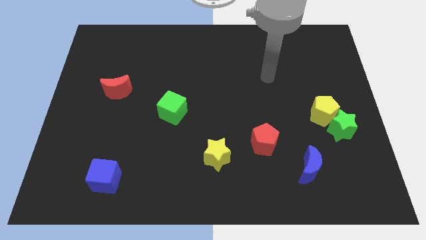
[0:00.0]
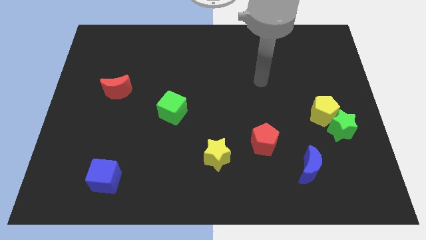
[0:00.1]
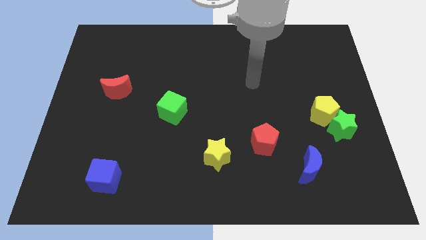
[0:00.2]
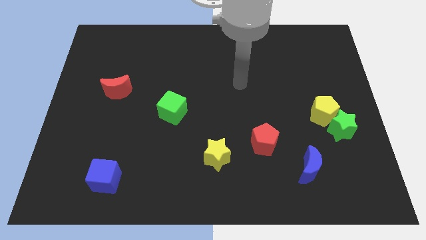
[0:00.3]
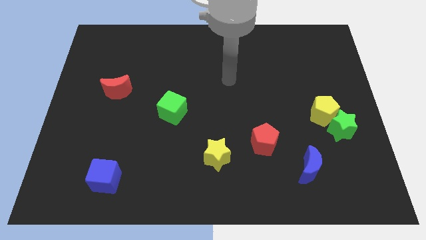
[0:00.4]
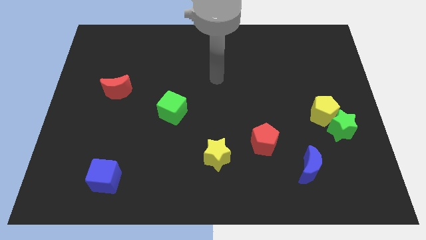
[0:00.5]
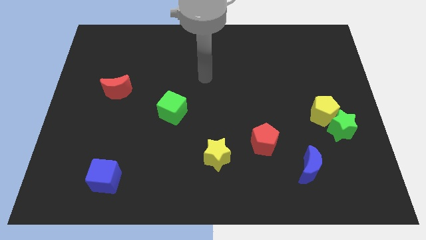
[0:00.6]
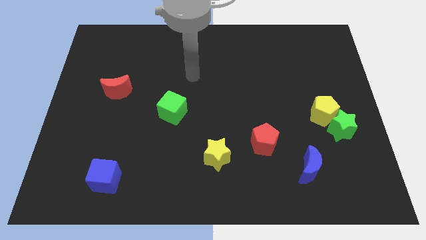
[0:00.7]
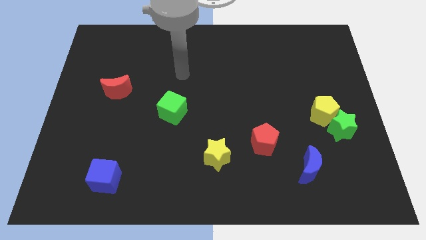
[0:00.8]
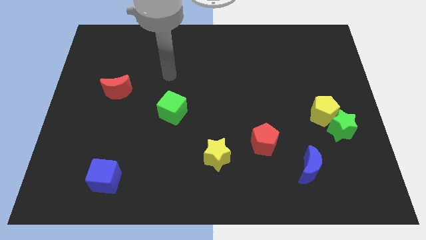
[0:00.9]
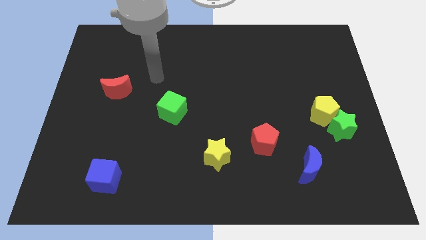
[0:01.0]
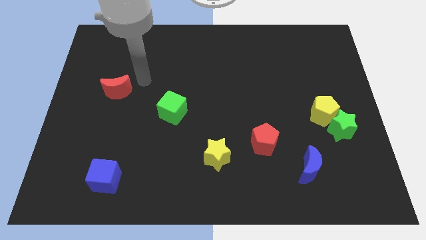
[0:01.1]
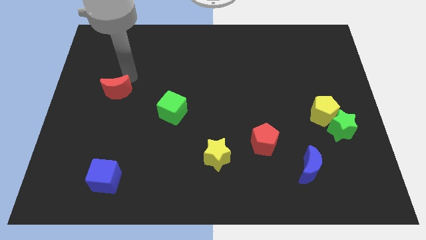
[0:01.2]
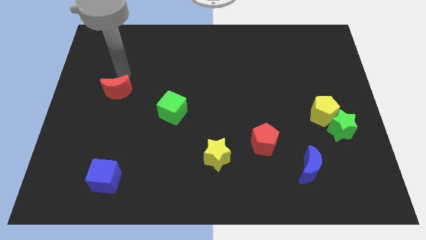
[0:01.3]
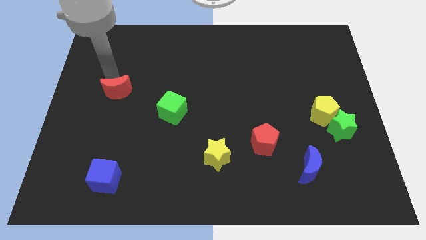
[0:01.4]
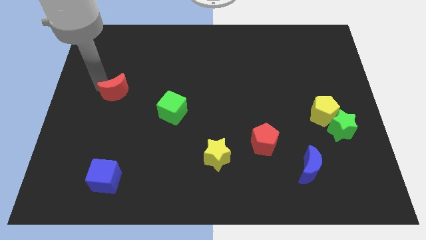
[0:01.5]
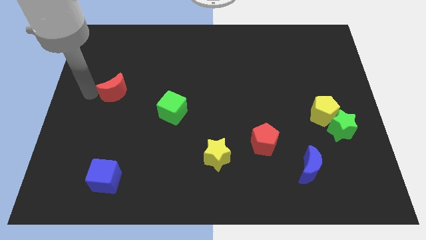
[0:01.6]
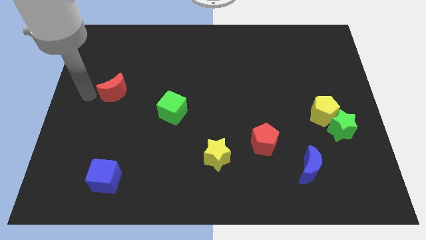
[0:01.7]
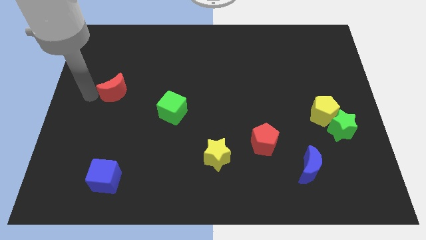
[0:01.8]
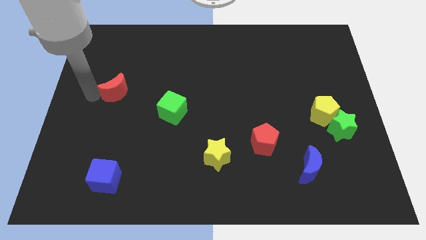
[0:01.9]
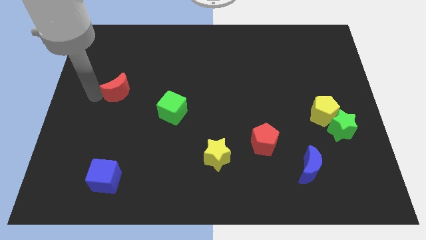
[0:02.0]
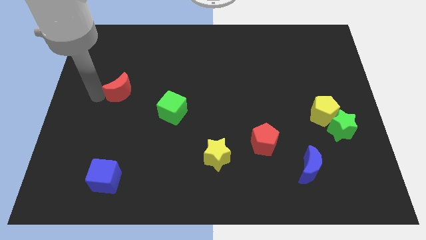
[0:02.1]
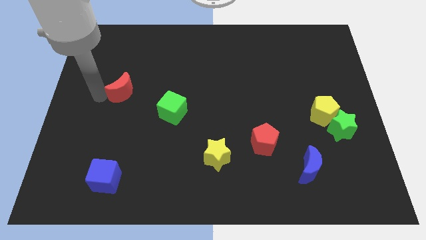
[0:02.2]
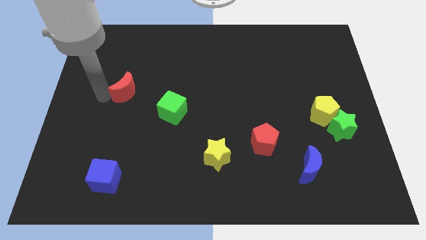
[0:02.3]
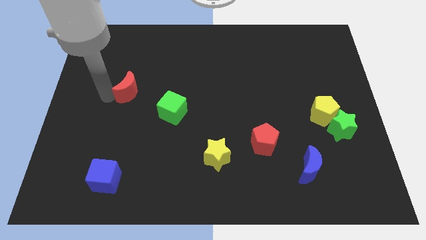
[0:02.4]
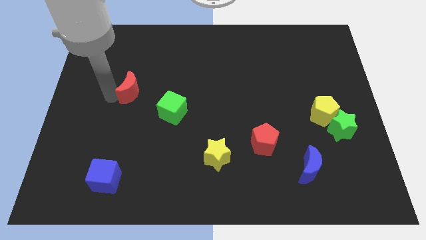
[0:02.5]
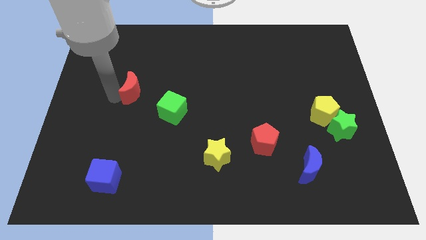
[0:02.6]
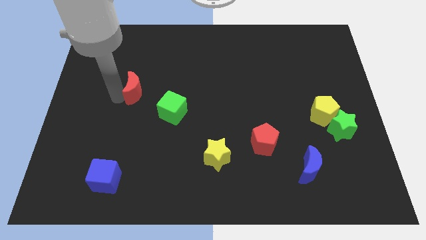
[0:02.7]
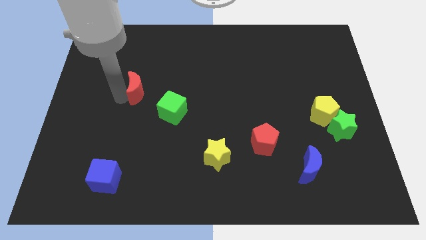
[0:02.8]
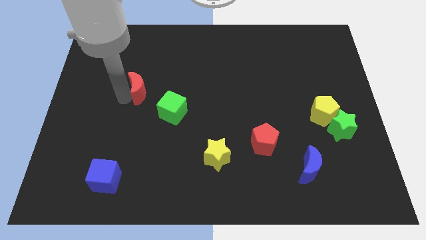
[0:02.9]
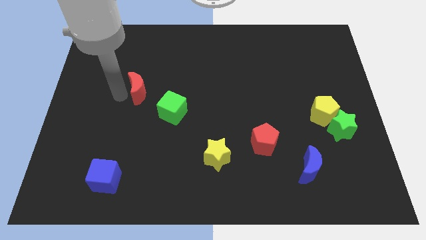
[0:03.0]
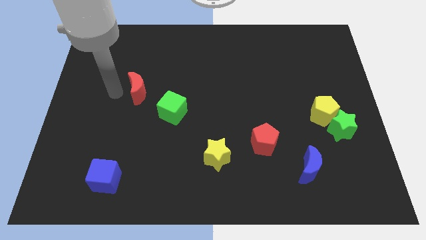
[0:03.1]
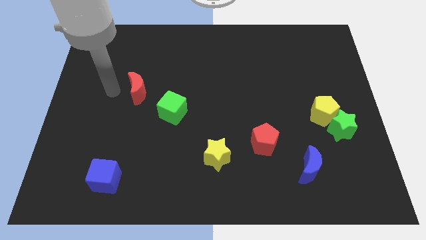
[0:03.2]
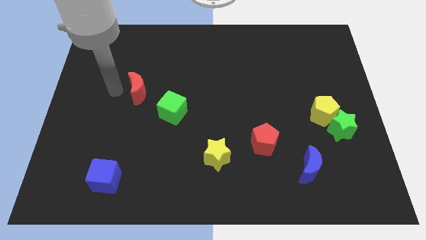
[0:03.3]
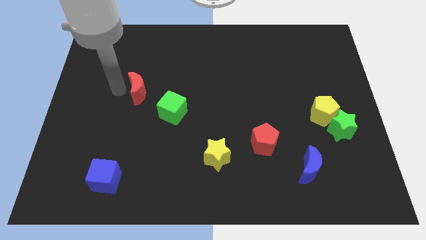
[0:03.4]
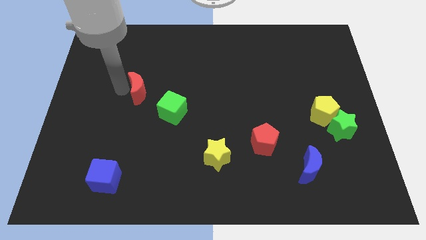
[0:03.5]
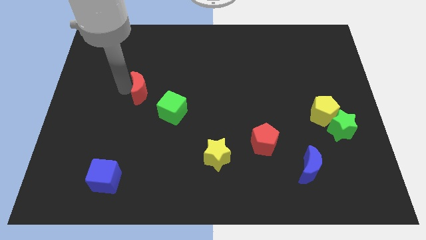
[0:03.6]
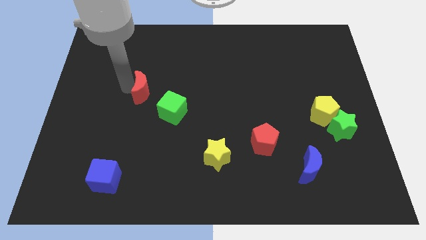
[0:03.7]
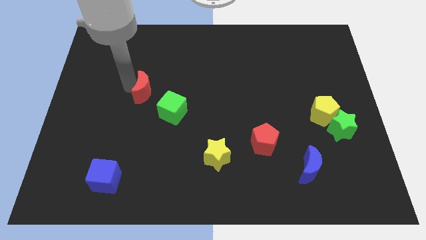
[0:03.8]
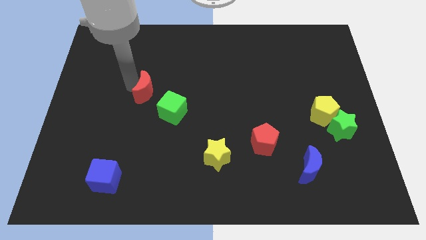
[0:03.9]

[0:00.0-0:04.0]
slightly push the red moon right

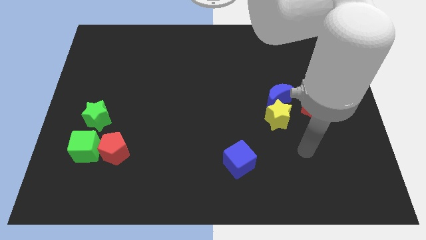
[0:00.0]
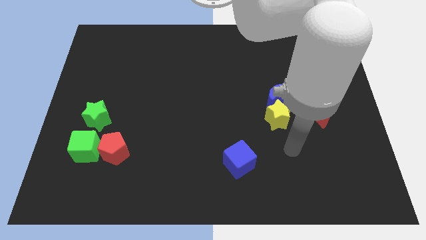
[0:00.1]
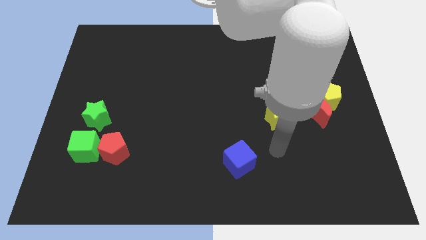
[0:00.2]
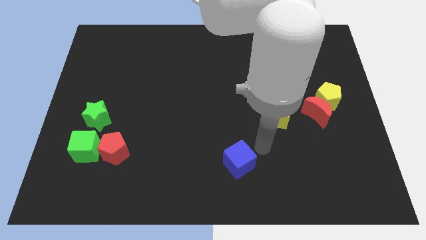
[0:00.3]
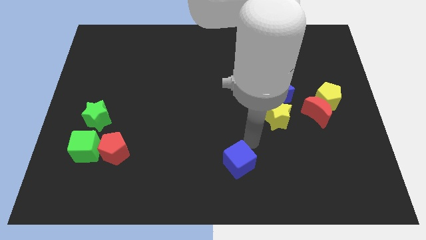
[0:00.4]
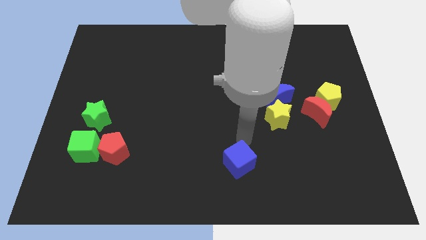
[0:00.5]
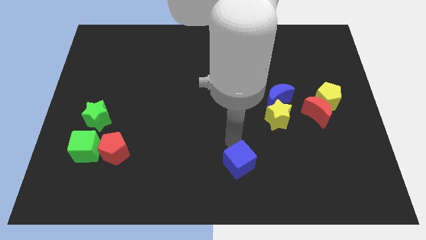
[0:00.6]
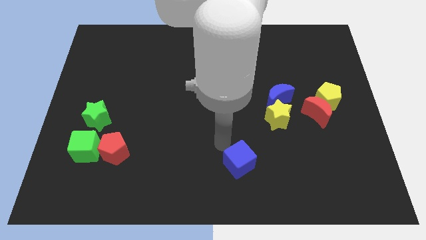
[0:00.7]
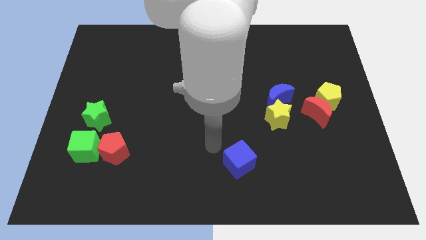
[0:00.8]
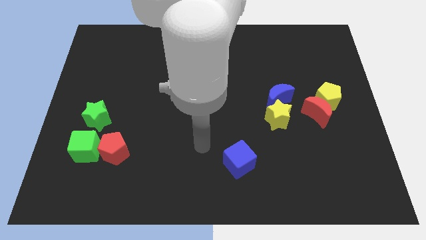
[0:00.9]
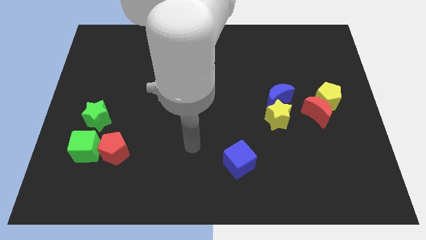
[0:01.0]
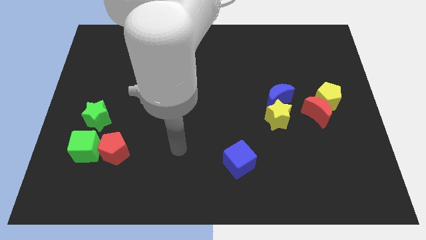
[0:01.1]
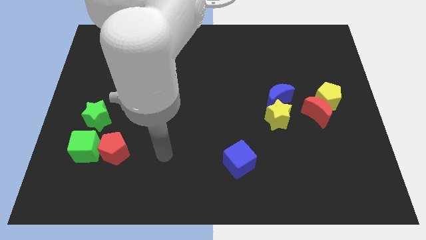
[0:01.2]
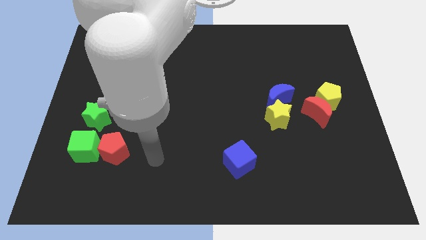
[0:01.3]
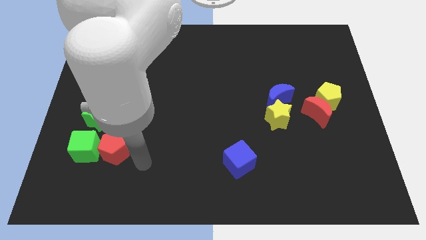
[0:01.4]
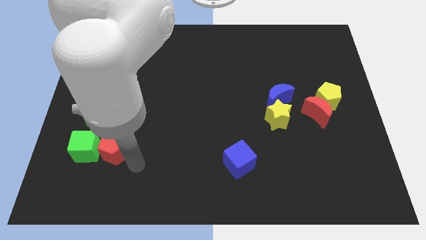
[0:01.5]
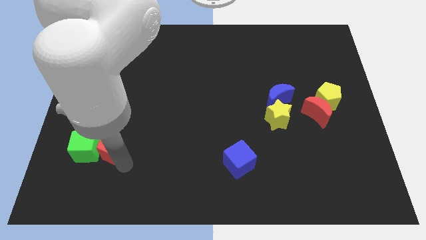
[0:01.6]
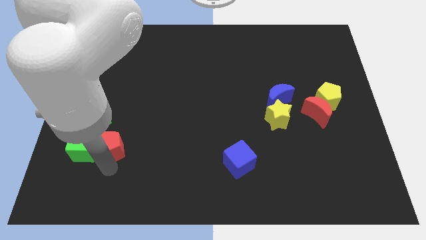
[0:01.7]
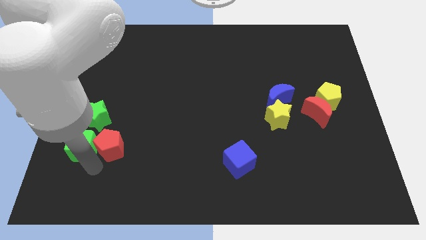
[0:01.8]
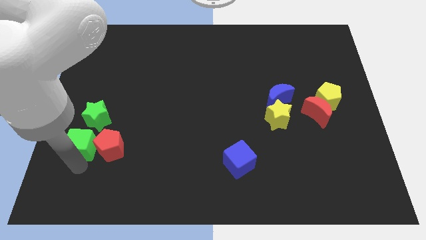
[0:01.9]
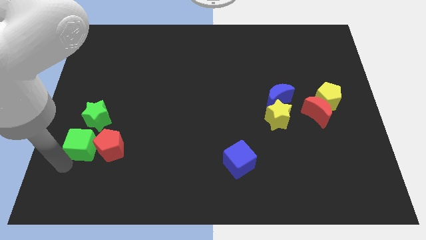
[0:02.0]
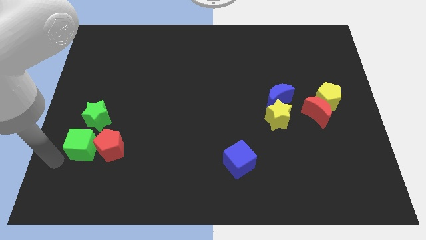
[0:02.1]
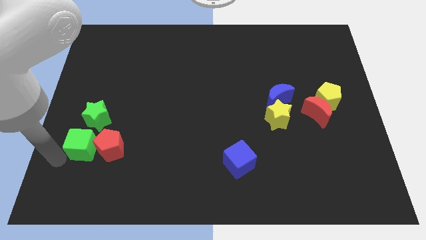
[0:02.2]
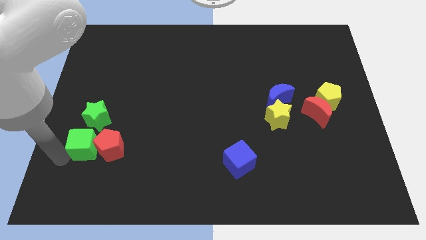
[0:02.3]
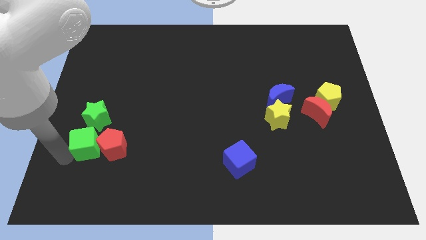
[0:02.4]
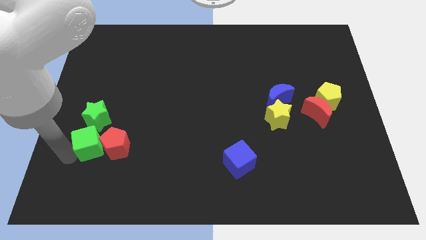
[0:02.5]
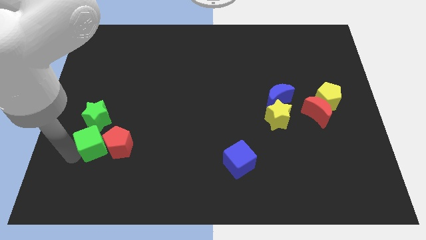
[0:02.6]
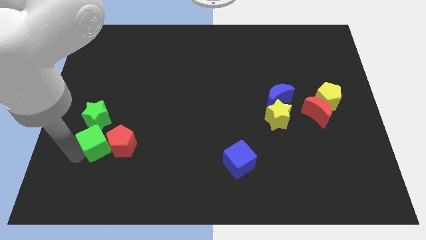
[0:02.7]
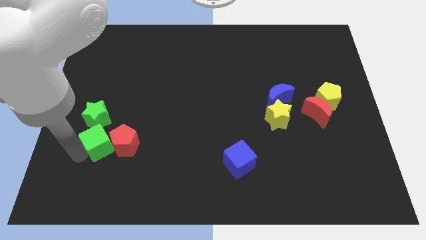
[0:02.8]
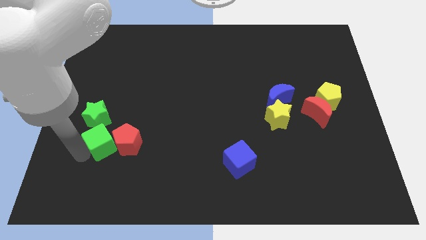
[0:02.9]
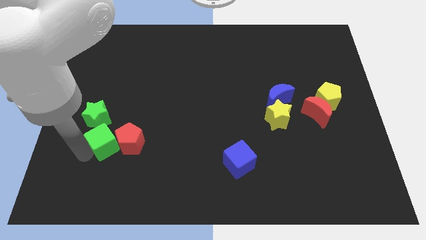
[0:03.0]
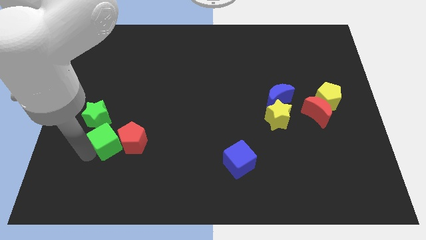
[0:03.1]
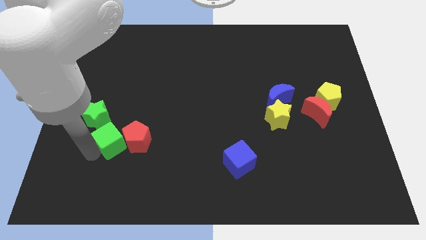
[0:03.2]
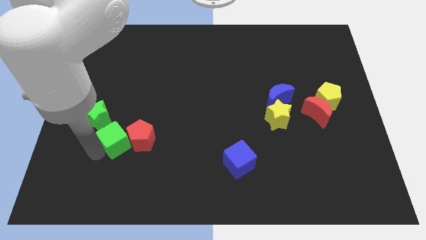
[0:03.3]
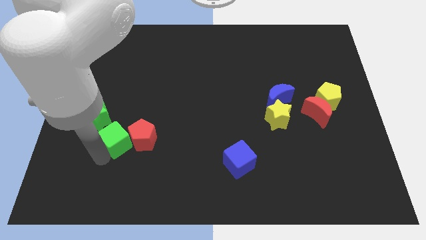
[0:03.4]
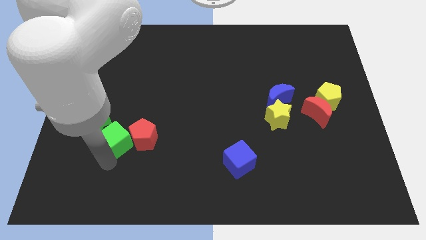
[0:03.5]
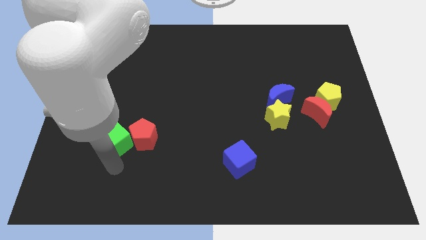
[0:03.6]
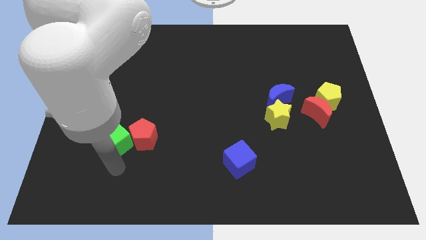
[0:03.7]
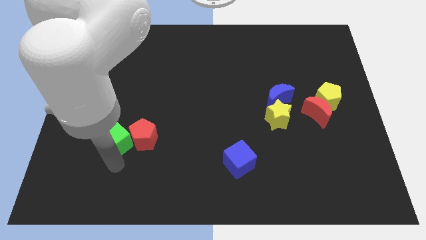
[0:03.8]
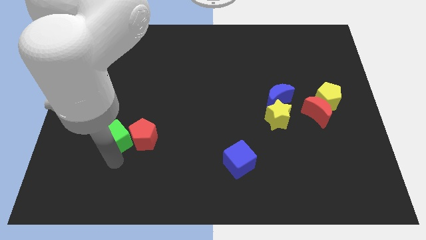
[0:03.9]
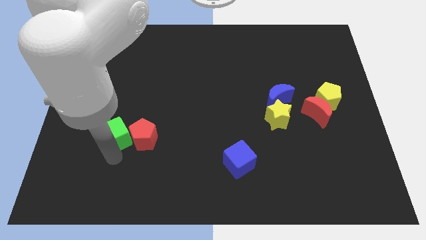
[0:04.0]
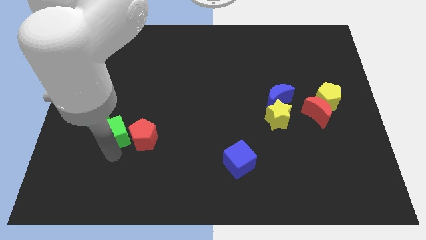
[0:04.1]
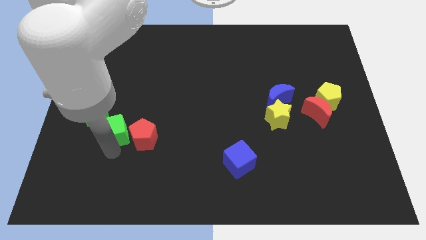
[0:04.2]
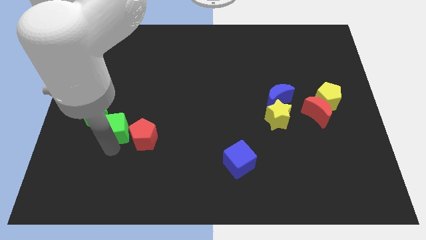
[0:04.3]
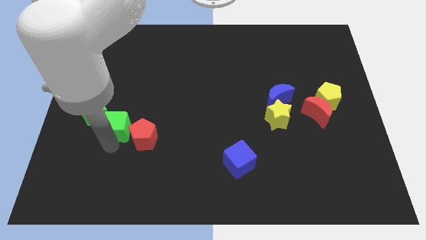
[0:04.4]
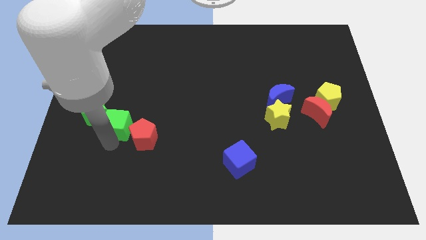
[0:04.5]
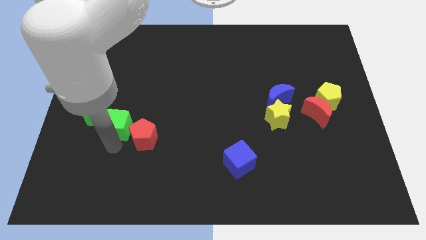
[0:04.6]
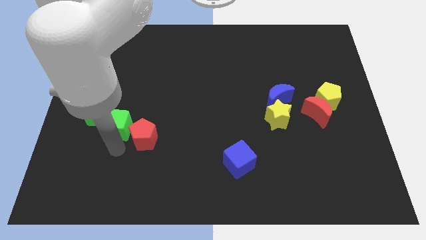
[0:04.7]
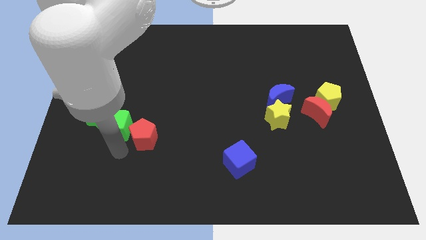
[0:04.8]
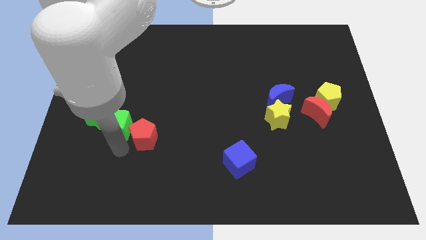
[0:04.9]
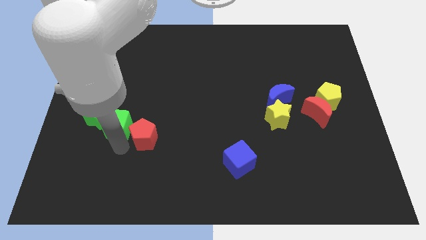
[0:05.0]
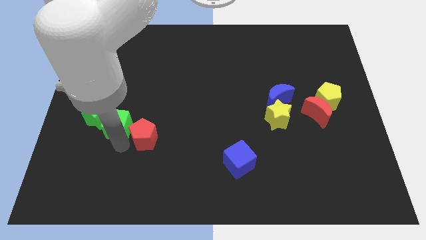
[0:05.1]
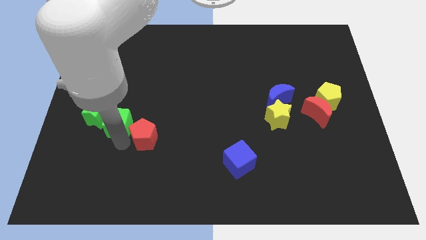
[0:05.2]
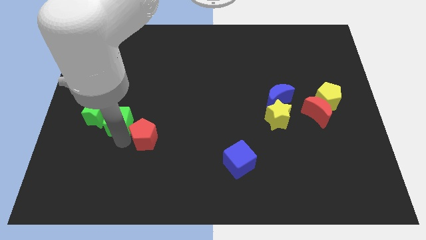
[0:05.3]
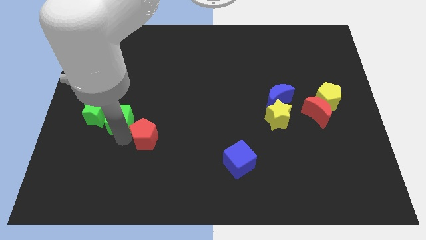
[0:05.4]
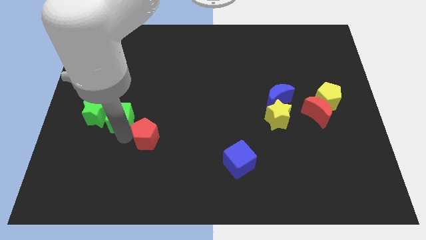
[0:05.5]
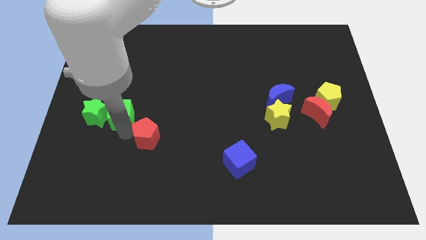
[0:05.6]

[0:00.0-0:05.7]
move the green cube up slightly
